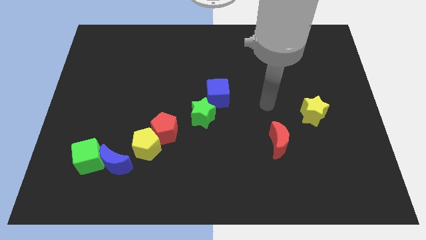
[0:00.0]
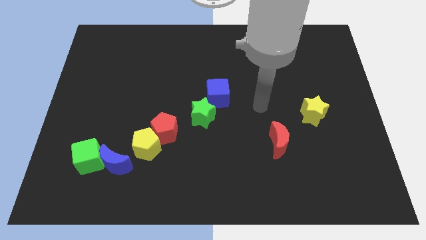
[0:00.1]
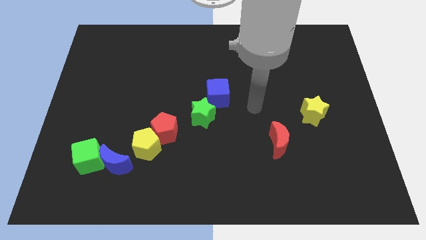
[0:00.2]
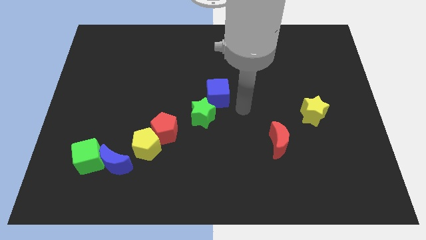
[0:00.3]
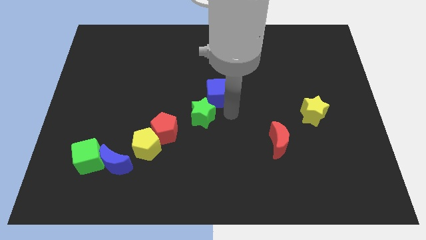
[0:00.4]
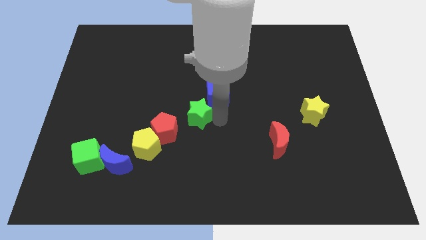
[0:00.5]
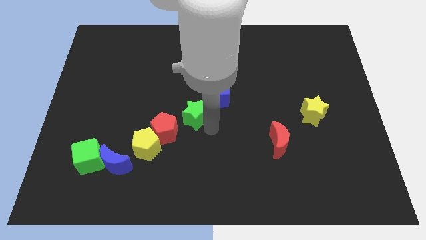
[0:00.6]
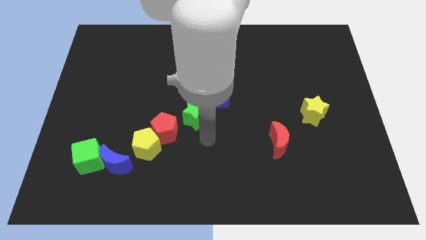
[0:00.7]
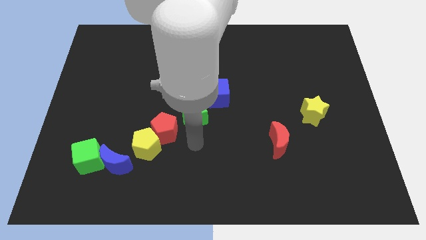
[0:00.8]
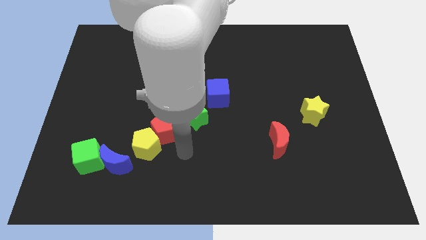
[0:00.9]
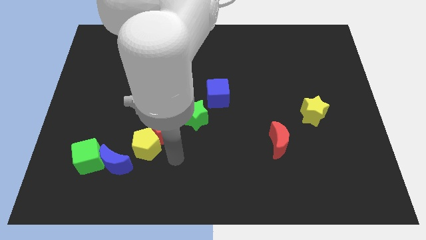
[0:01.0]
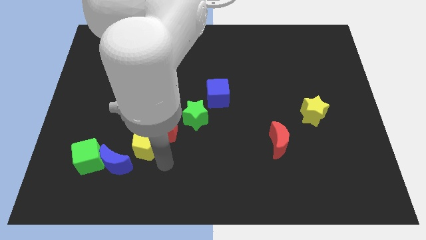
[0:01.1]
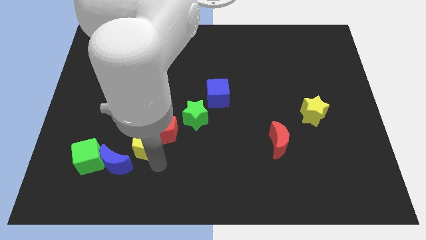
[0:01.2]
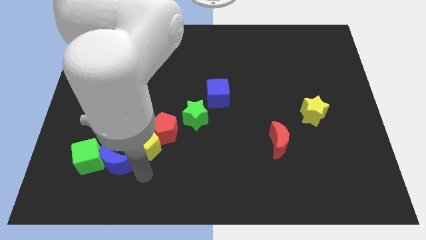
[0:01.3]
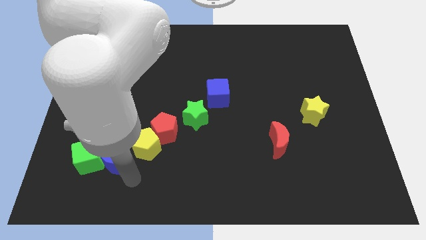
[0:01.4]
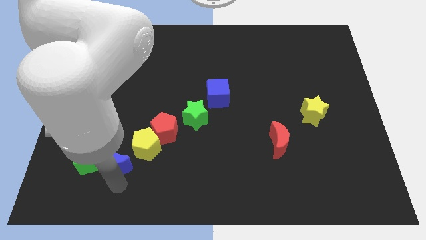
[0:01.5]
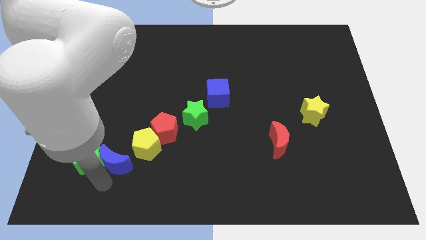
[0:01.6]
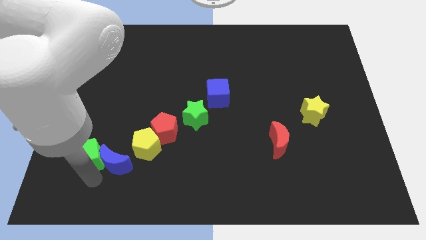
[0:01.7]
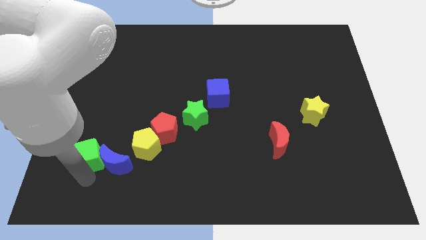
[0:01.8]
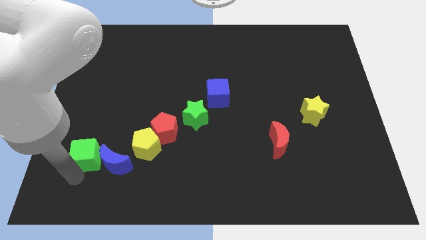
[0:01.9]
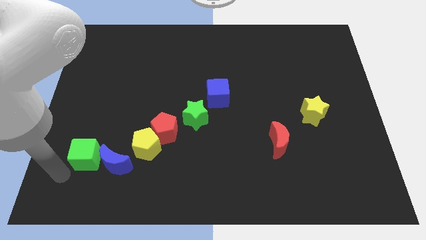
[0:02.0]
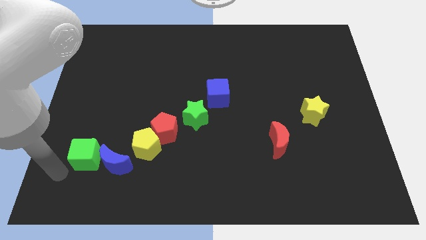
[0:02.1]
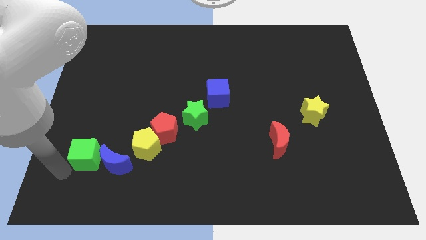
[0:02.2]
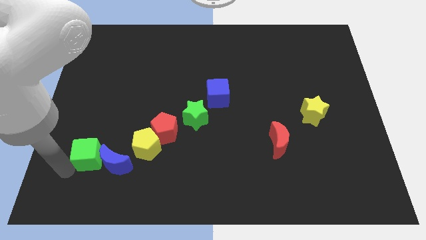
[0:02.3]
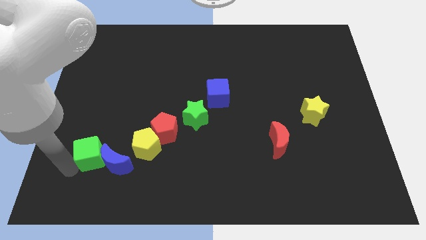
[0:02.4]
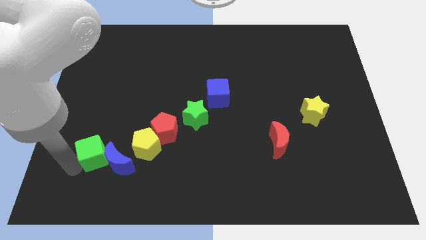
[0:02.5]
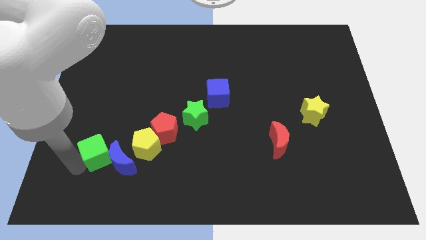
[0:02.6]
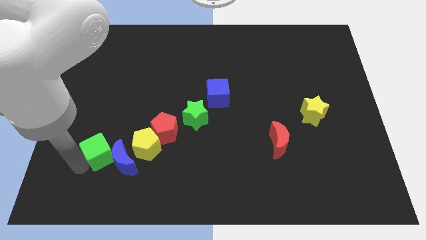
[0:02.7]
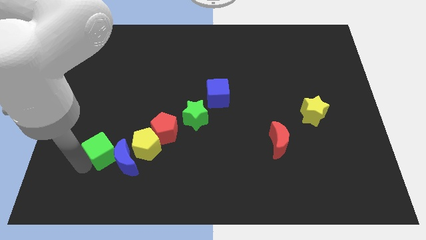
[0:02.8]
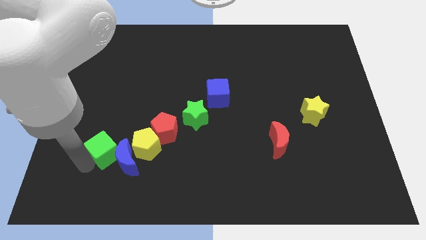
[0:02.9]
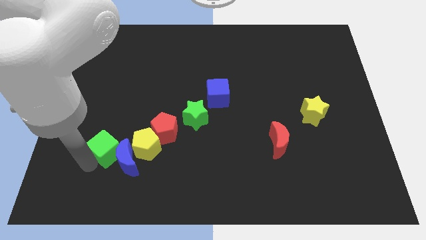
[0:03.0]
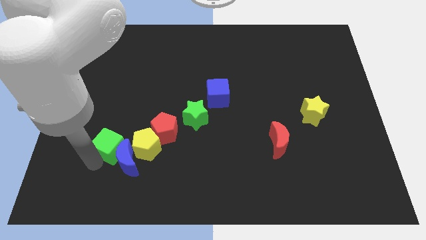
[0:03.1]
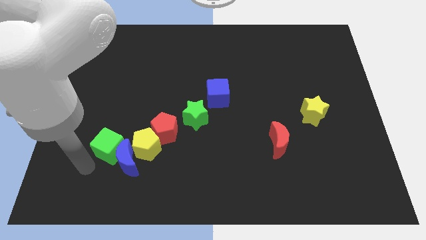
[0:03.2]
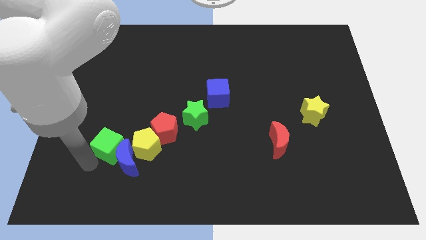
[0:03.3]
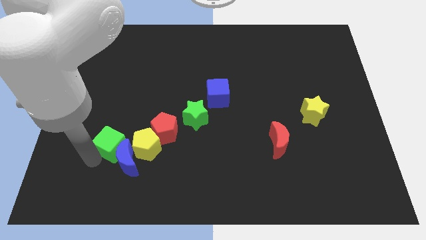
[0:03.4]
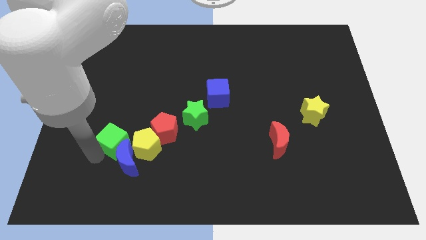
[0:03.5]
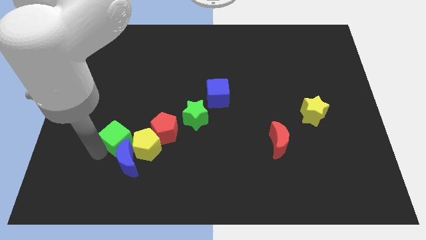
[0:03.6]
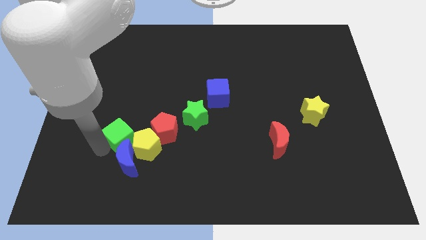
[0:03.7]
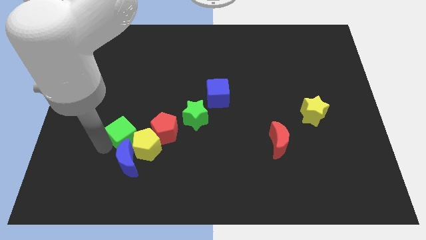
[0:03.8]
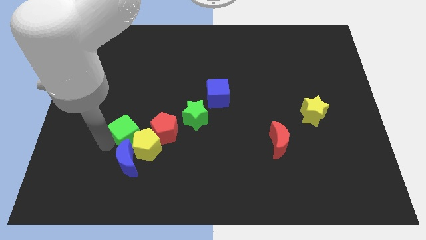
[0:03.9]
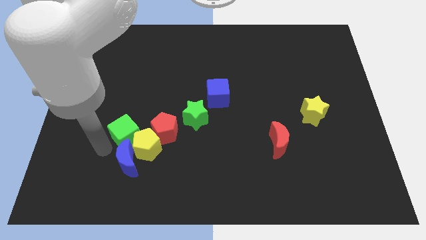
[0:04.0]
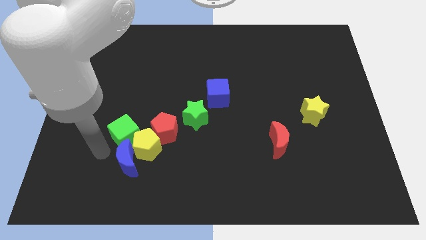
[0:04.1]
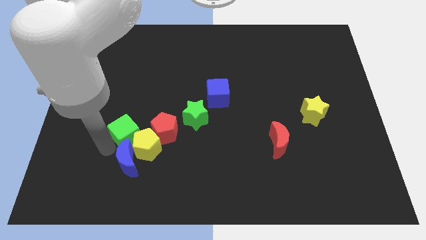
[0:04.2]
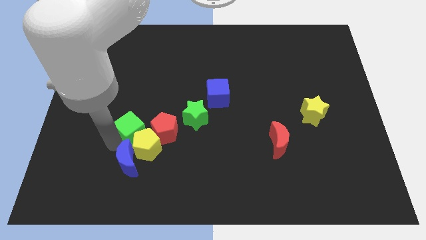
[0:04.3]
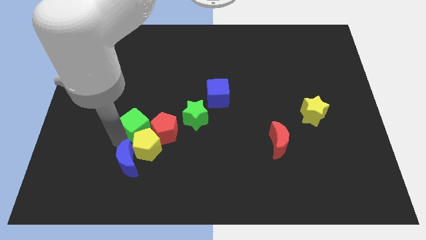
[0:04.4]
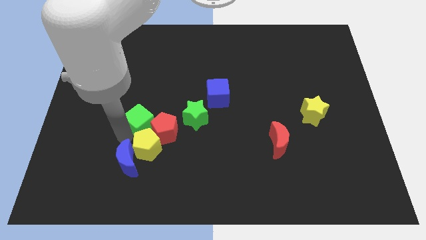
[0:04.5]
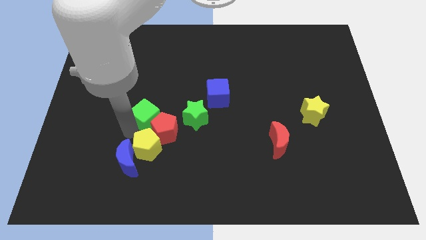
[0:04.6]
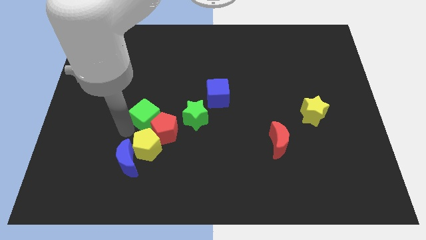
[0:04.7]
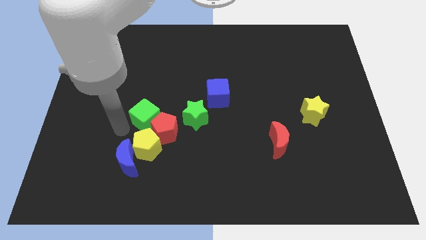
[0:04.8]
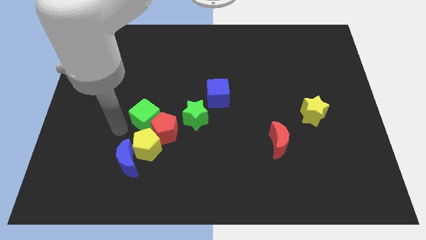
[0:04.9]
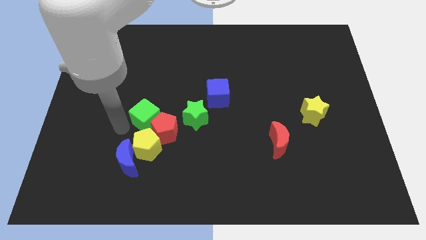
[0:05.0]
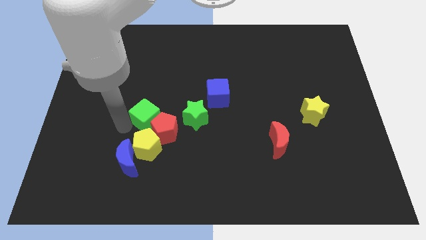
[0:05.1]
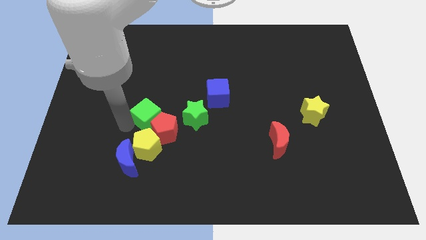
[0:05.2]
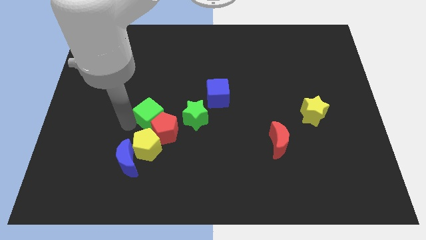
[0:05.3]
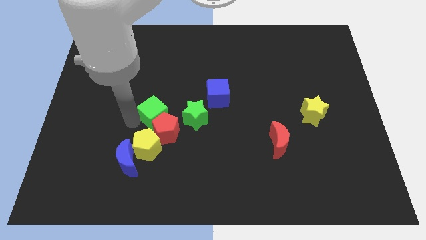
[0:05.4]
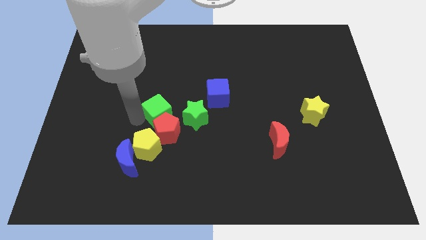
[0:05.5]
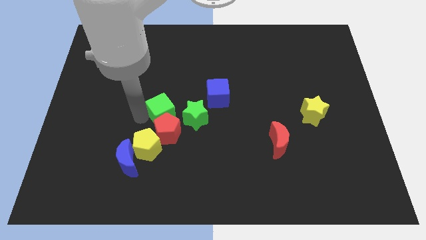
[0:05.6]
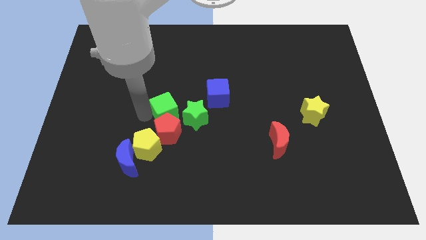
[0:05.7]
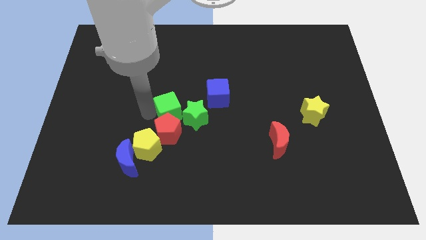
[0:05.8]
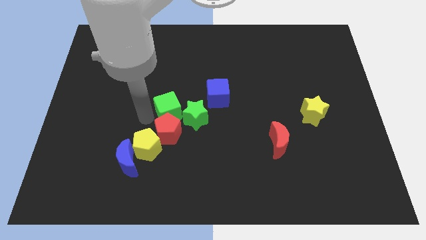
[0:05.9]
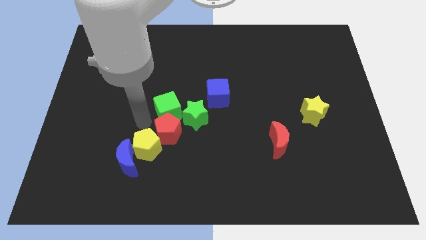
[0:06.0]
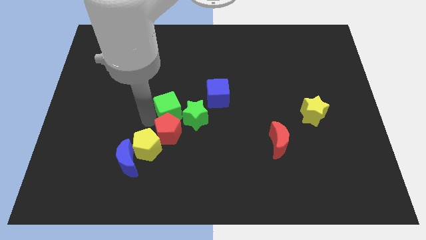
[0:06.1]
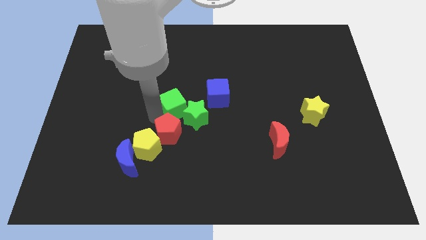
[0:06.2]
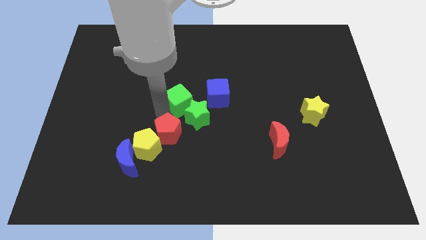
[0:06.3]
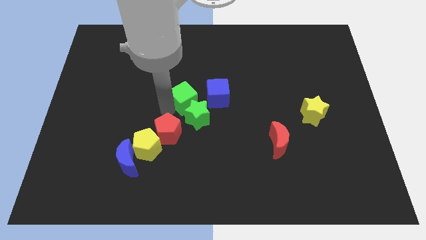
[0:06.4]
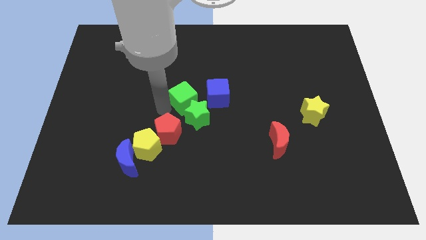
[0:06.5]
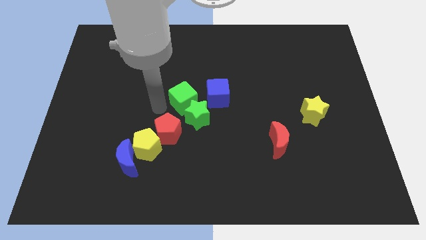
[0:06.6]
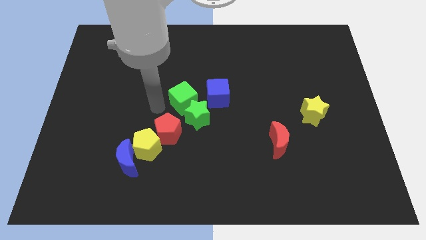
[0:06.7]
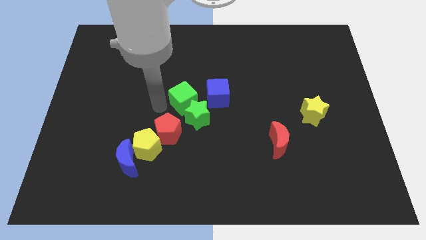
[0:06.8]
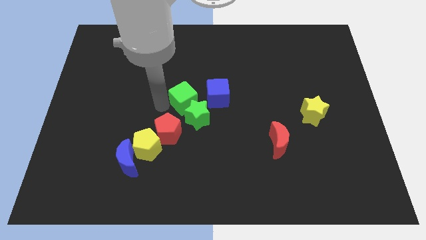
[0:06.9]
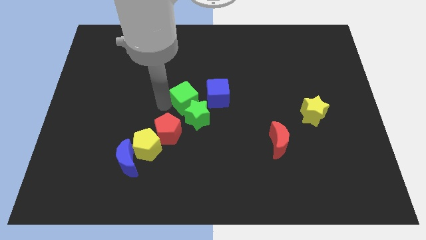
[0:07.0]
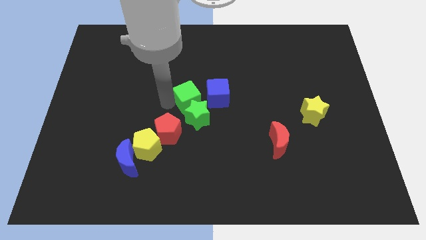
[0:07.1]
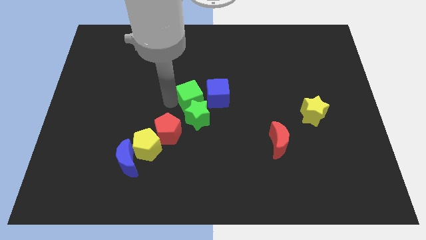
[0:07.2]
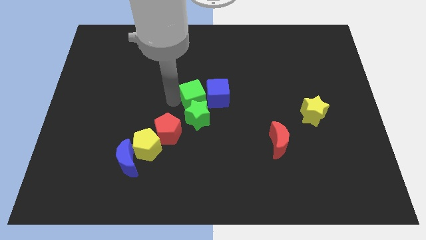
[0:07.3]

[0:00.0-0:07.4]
put the green cube to the blue cube
